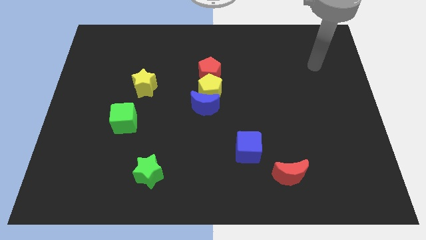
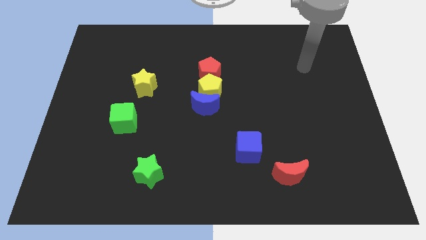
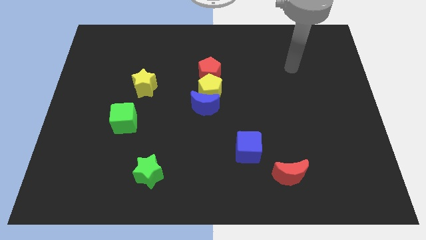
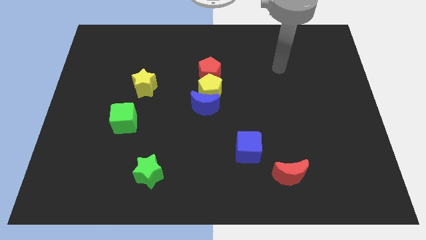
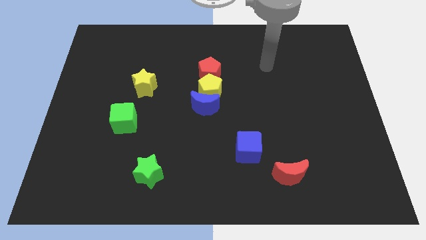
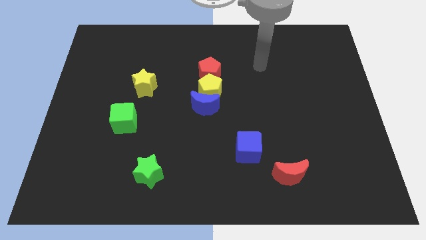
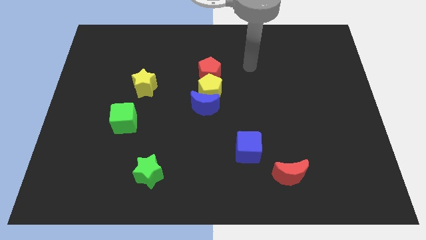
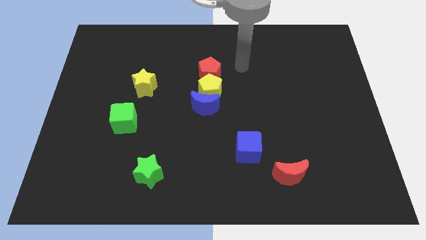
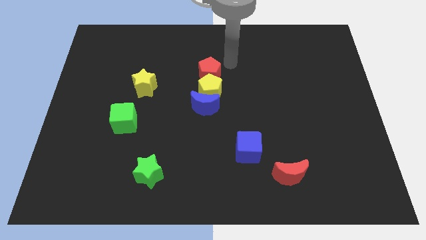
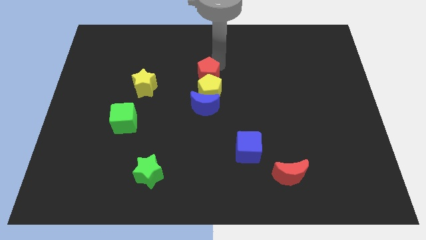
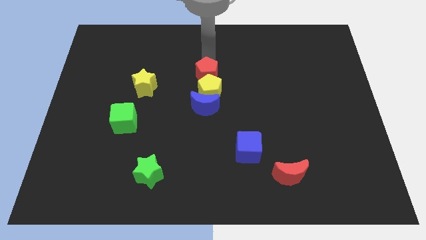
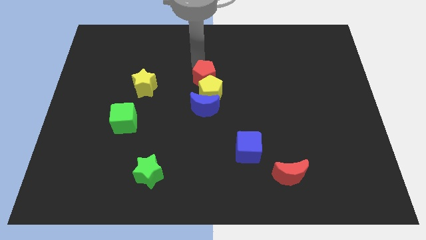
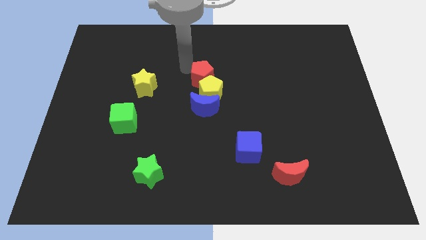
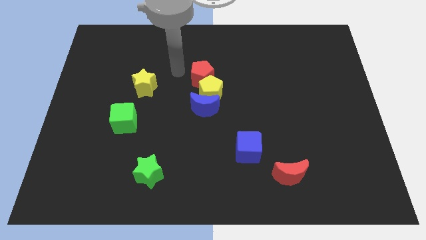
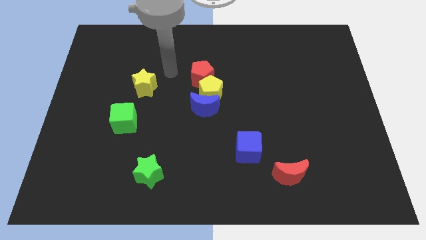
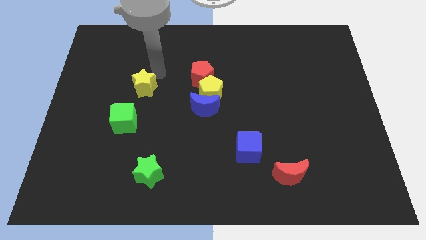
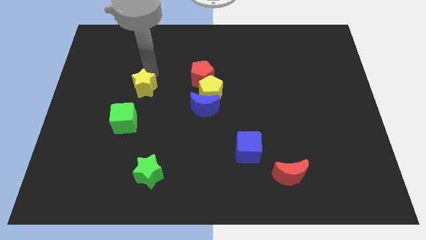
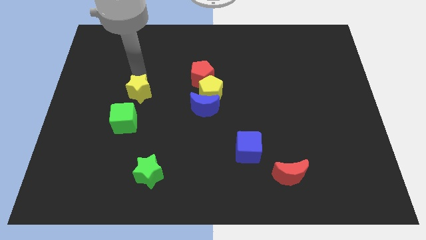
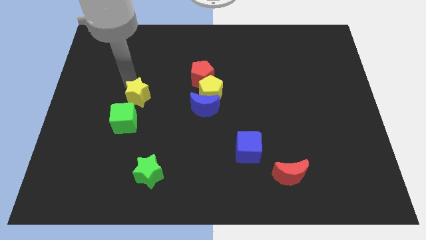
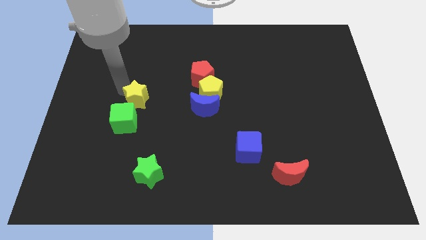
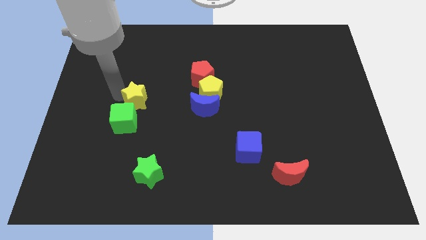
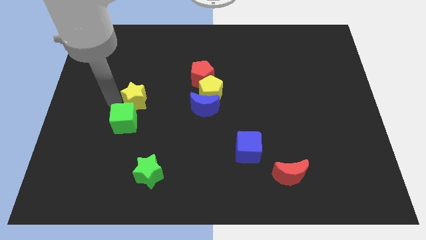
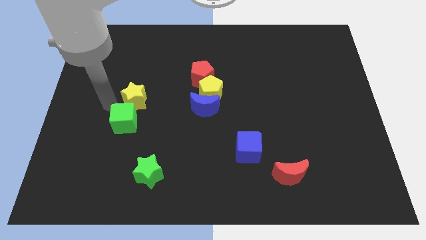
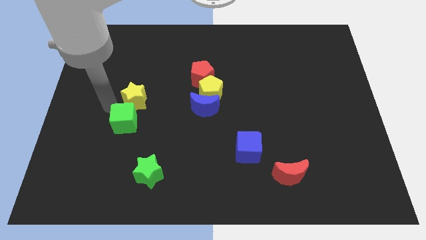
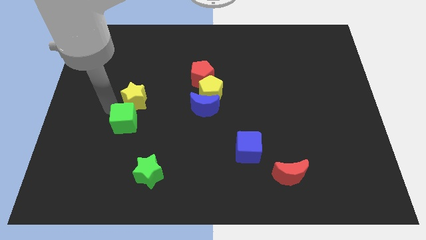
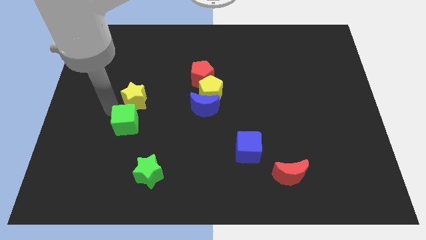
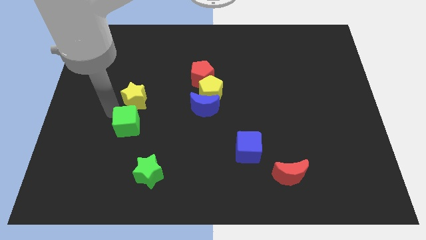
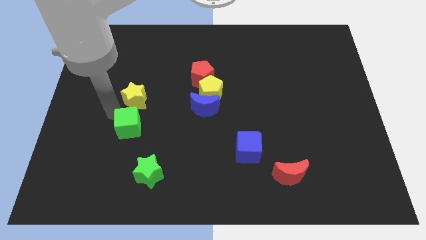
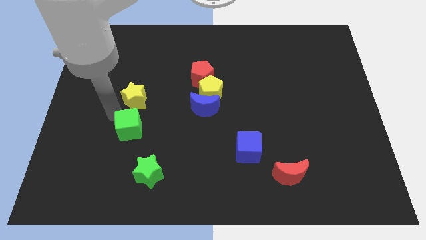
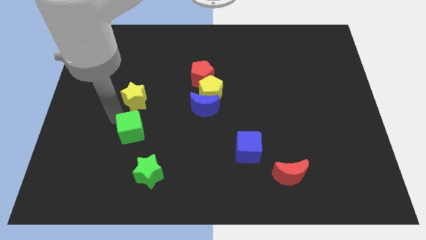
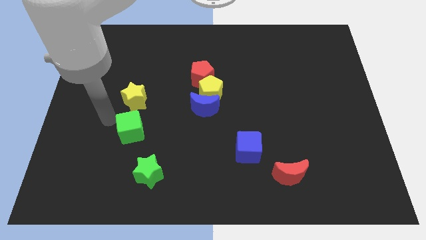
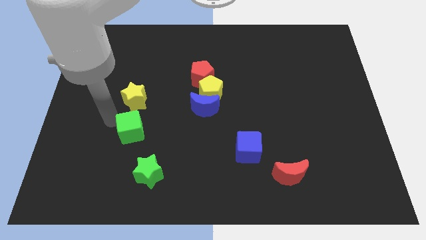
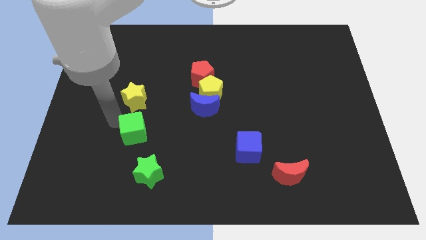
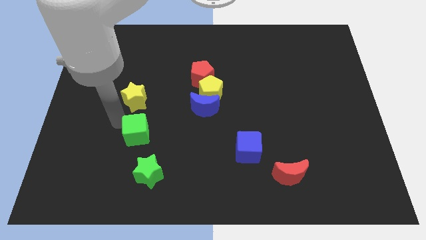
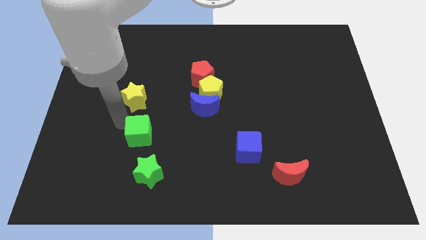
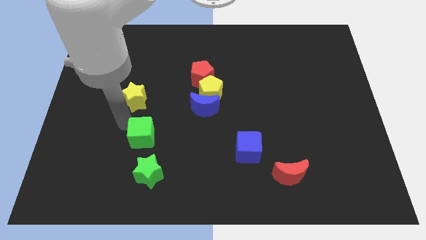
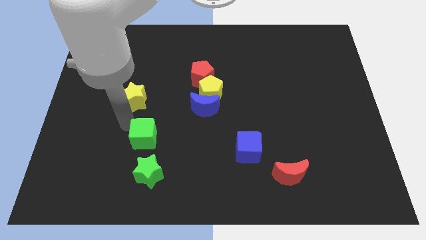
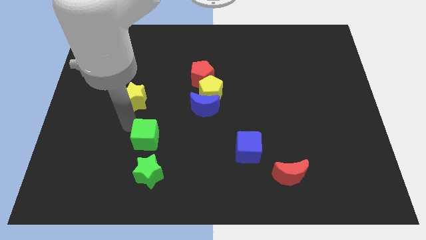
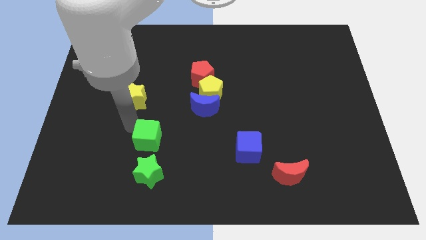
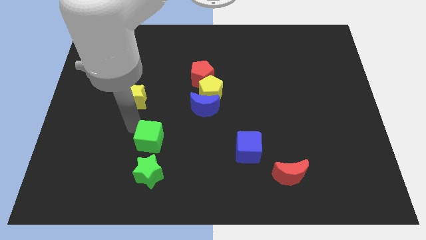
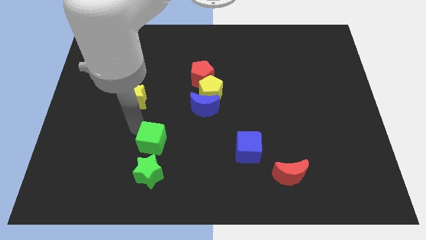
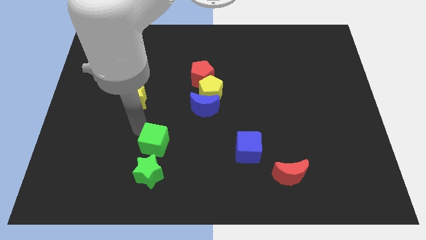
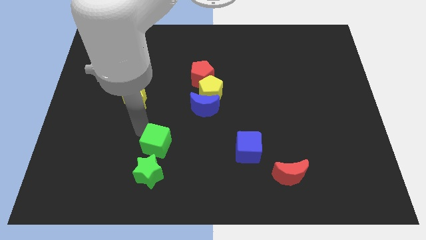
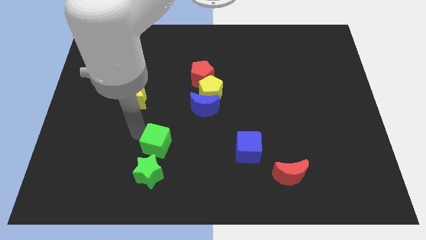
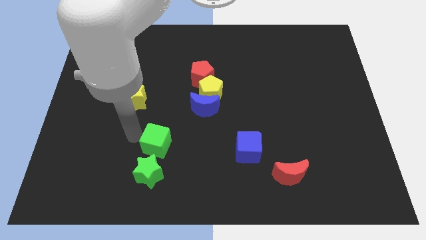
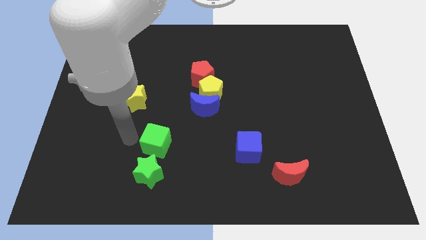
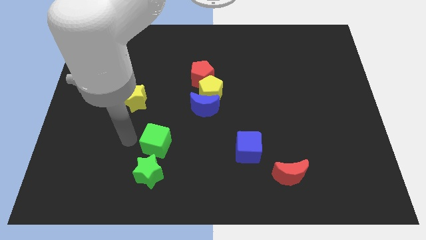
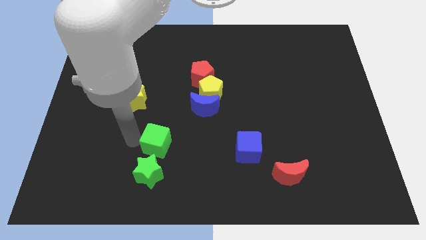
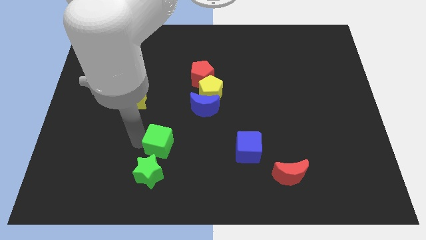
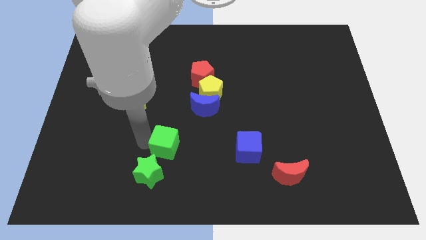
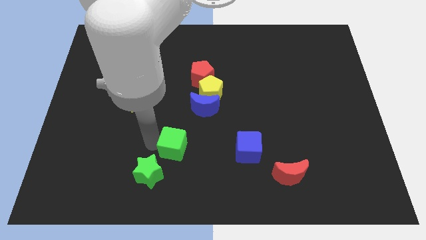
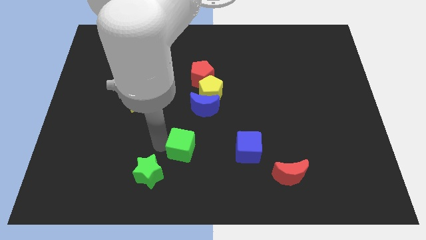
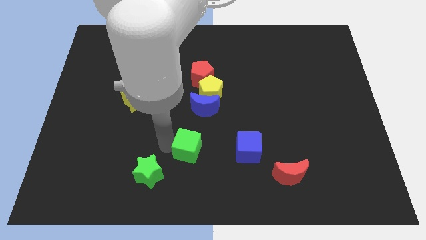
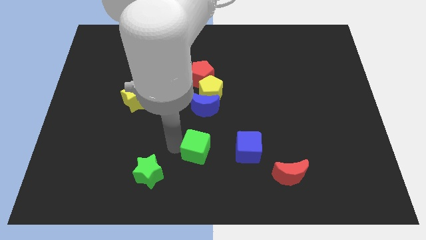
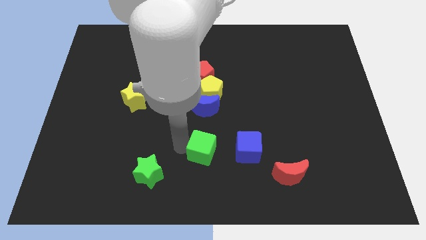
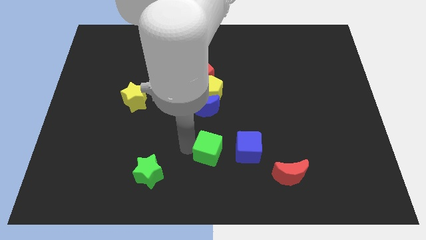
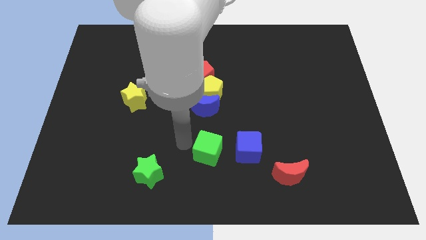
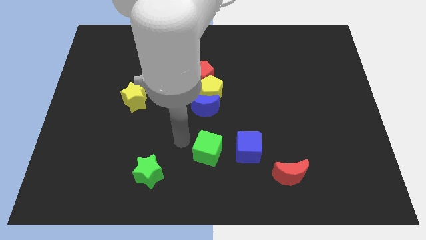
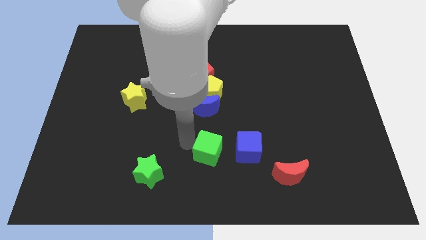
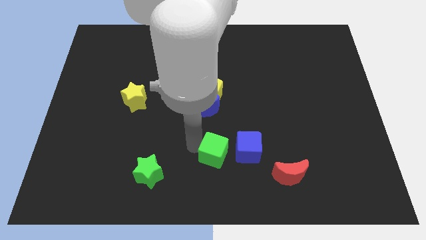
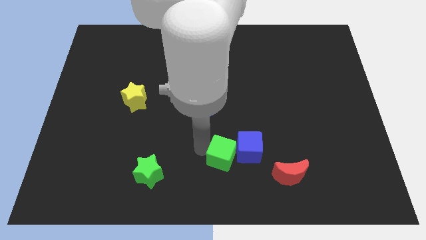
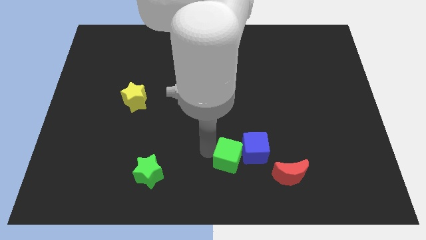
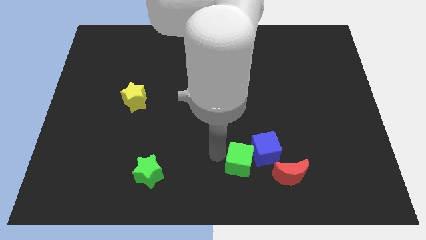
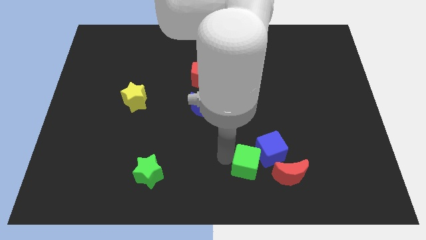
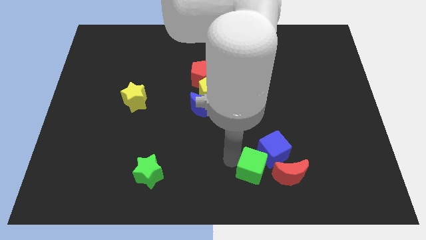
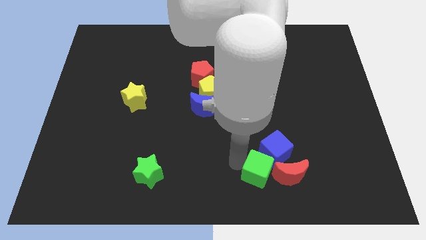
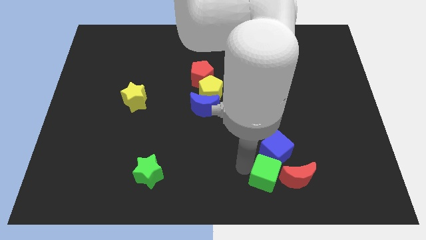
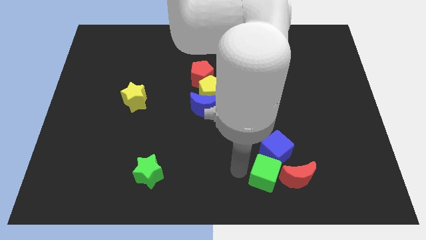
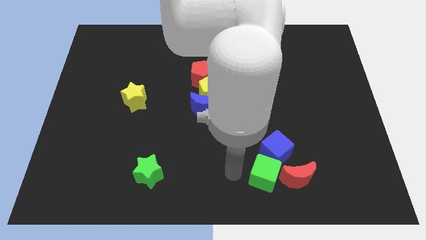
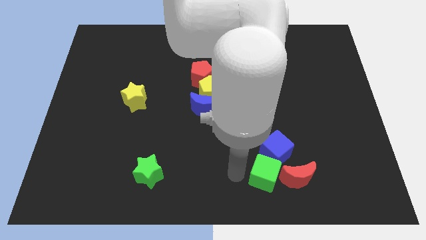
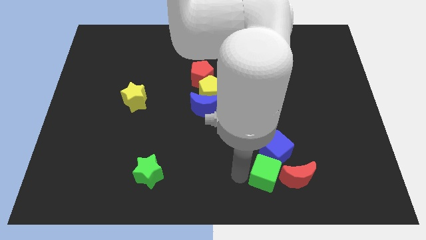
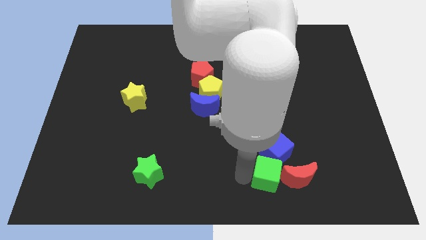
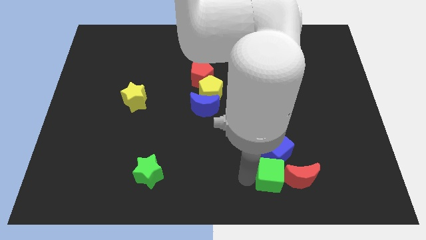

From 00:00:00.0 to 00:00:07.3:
move the green cube next to the red moon
